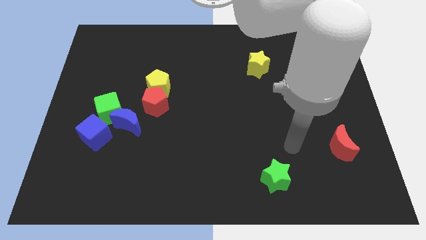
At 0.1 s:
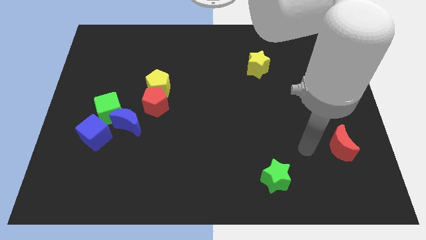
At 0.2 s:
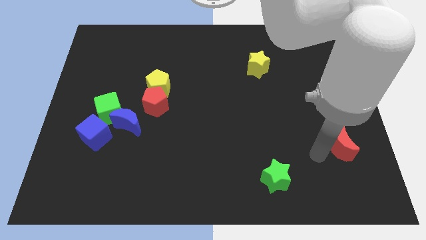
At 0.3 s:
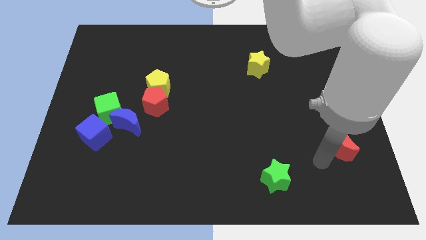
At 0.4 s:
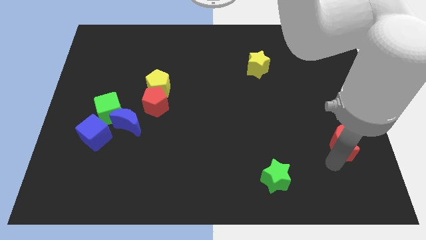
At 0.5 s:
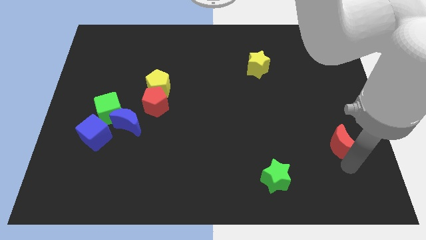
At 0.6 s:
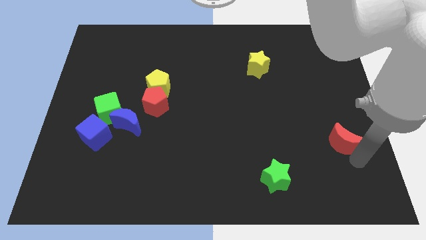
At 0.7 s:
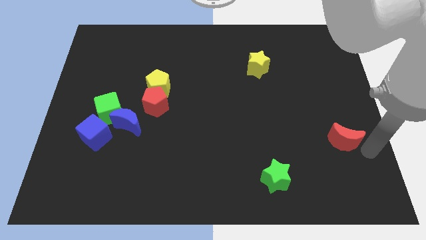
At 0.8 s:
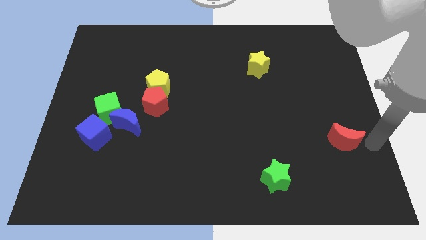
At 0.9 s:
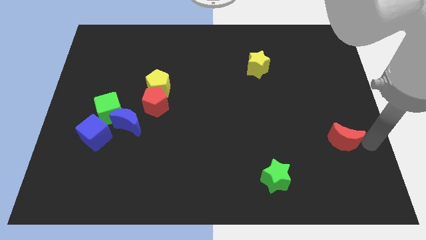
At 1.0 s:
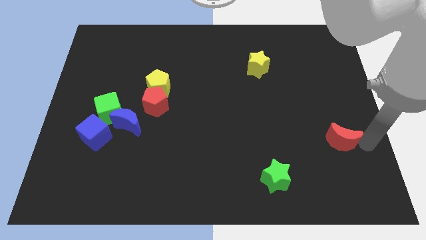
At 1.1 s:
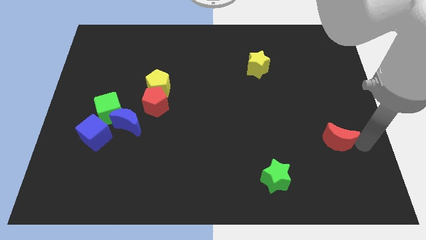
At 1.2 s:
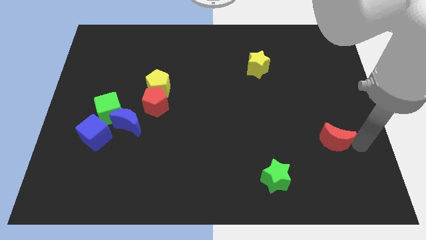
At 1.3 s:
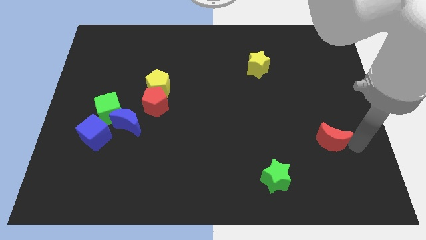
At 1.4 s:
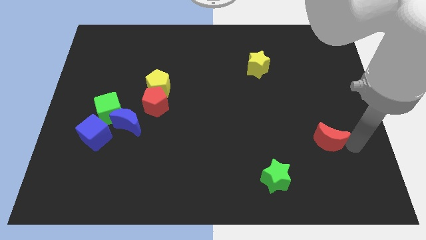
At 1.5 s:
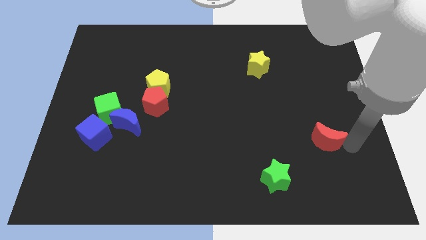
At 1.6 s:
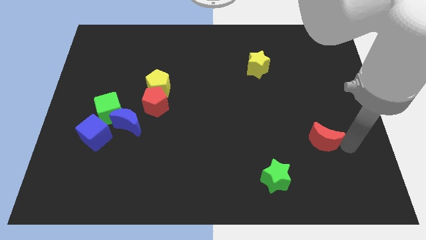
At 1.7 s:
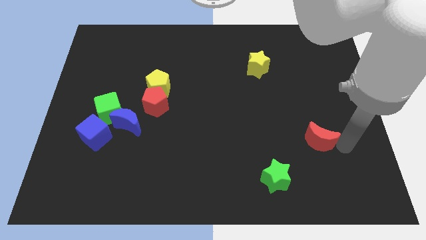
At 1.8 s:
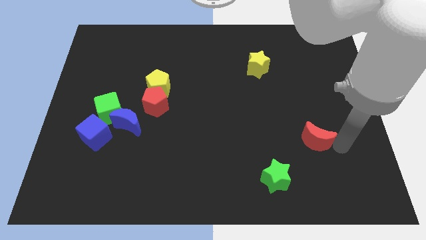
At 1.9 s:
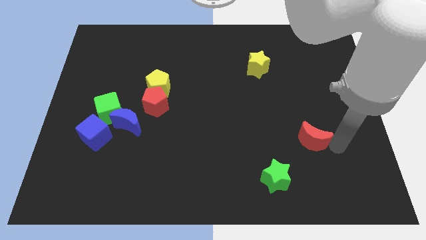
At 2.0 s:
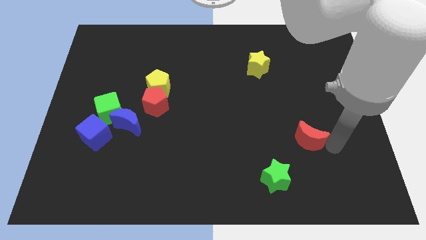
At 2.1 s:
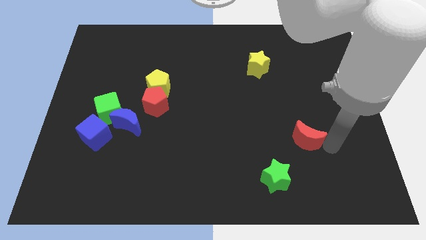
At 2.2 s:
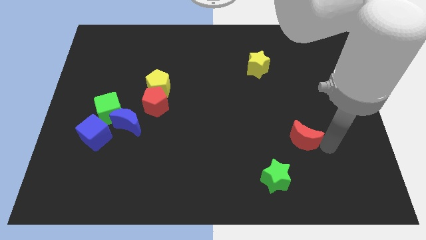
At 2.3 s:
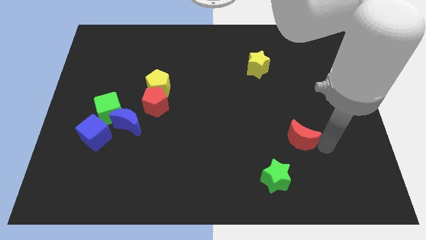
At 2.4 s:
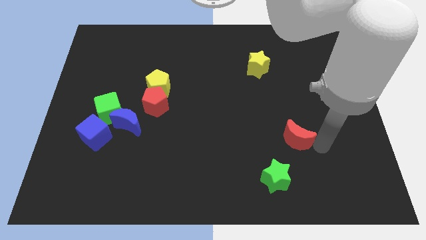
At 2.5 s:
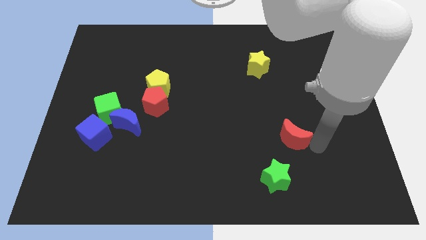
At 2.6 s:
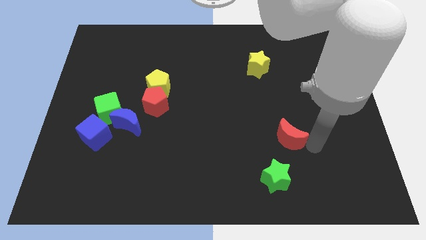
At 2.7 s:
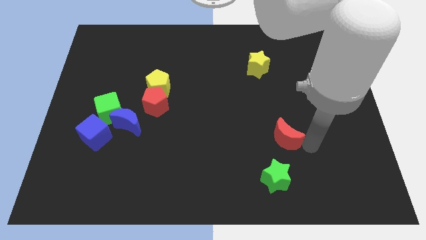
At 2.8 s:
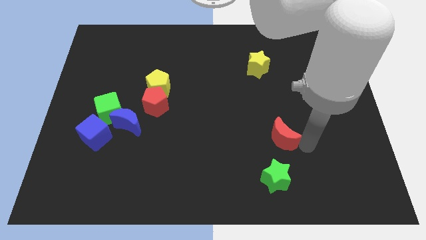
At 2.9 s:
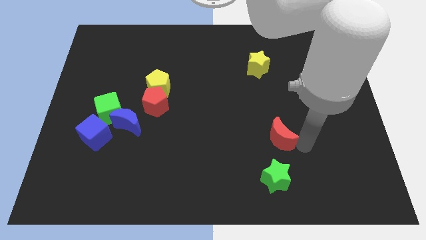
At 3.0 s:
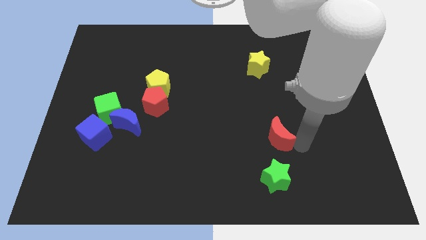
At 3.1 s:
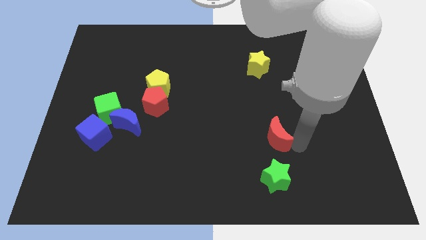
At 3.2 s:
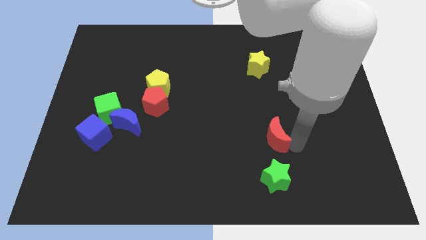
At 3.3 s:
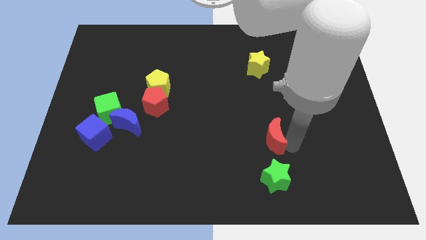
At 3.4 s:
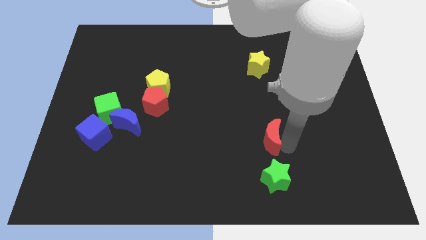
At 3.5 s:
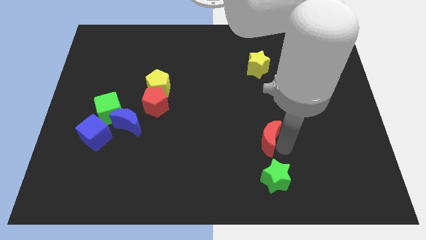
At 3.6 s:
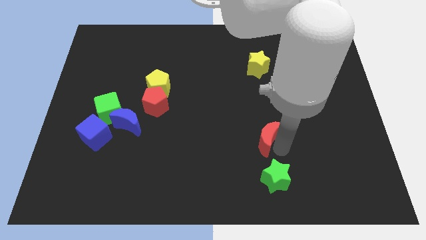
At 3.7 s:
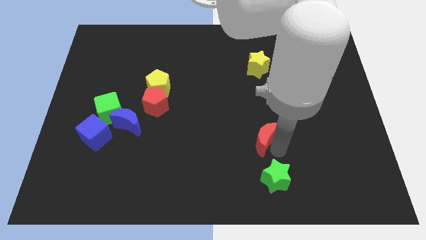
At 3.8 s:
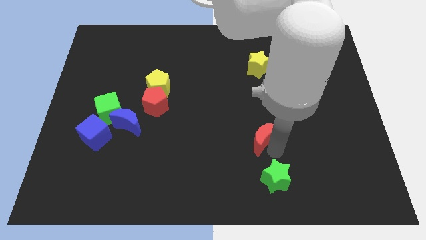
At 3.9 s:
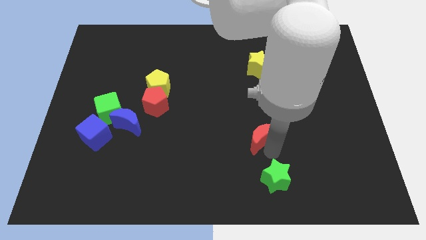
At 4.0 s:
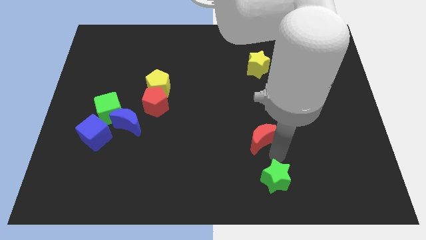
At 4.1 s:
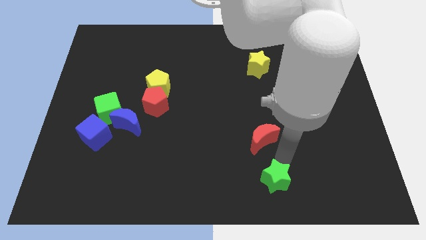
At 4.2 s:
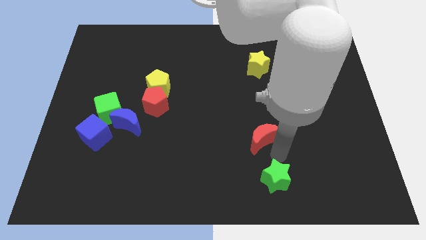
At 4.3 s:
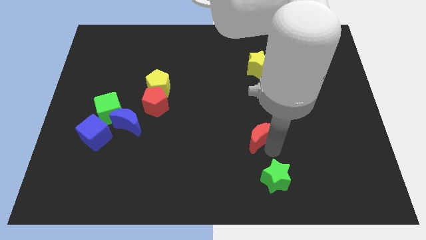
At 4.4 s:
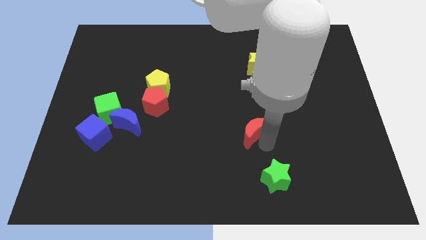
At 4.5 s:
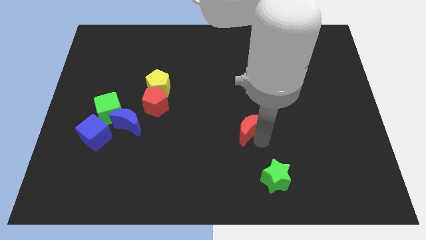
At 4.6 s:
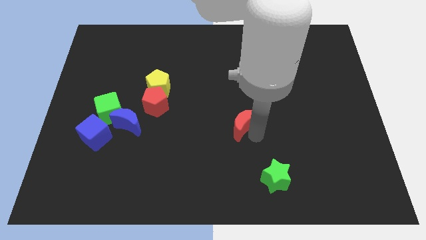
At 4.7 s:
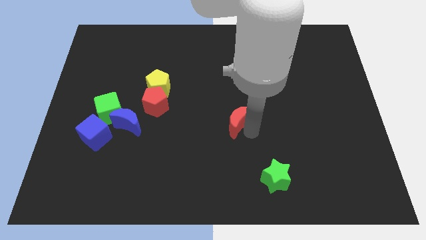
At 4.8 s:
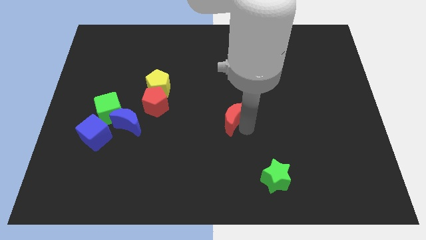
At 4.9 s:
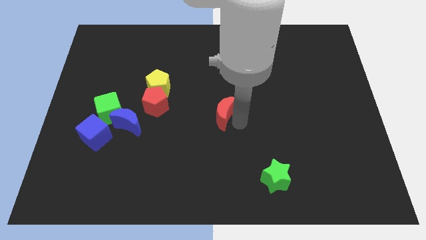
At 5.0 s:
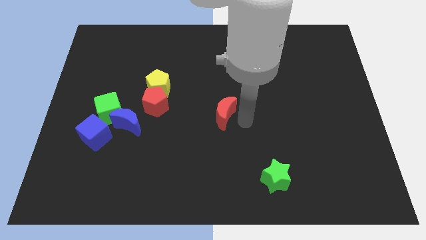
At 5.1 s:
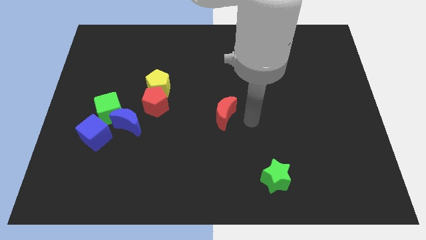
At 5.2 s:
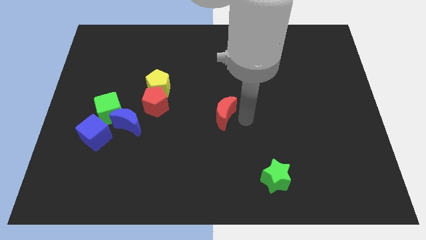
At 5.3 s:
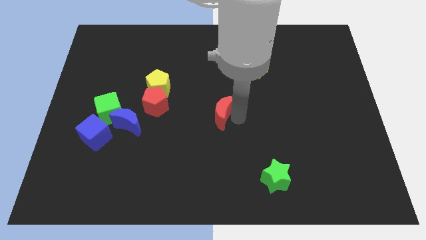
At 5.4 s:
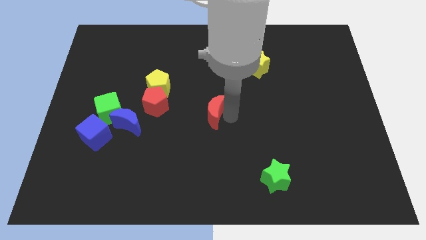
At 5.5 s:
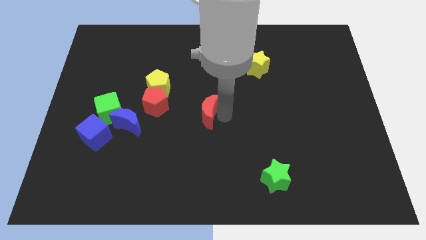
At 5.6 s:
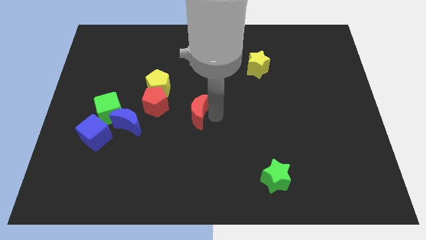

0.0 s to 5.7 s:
move the red moon to the bottom right side of the yellow pentagon

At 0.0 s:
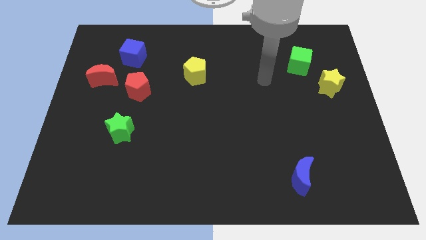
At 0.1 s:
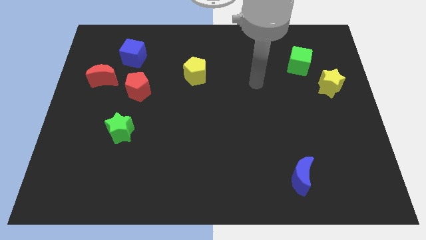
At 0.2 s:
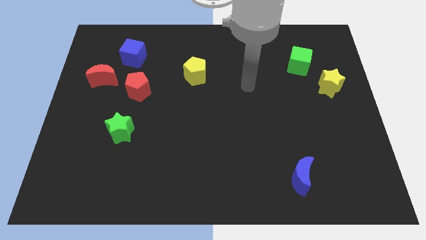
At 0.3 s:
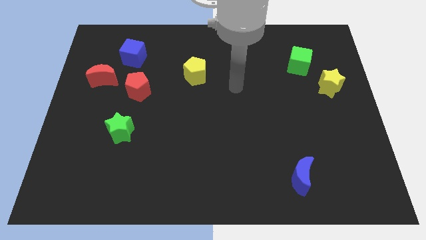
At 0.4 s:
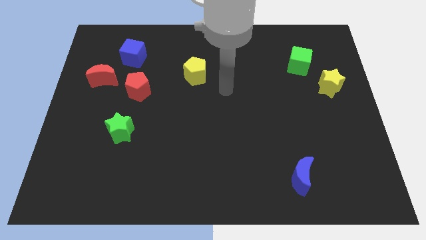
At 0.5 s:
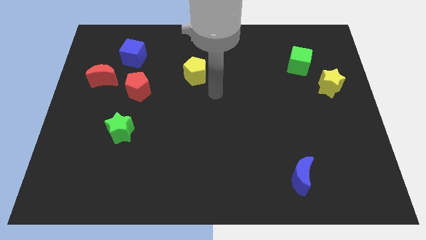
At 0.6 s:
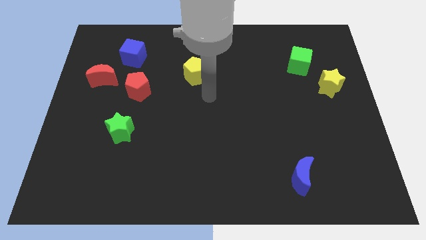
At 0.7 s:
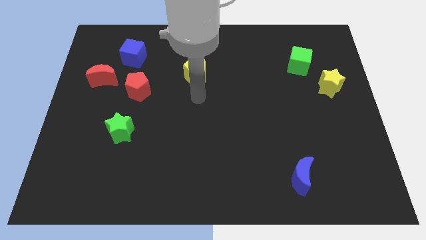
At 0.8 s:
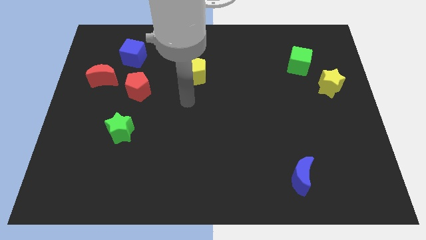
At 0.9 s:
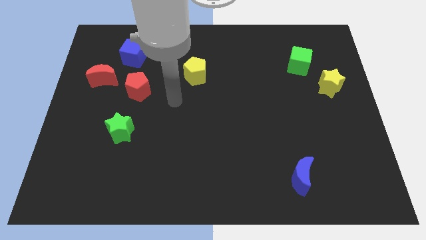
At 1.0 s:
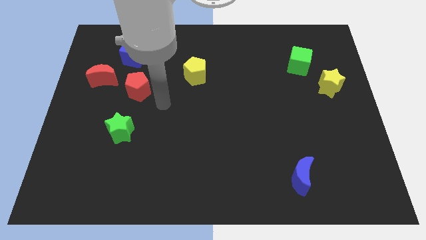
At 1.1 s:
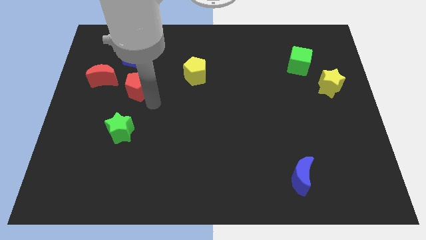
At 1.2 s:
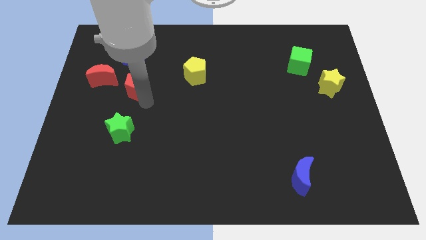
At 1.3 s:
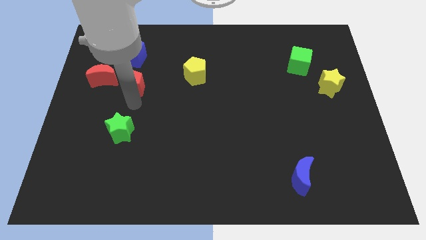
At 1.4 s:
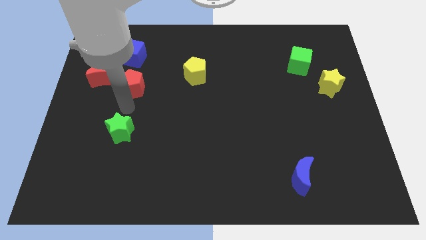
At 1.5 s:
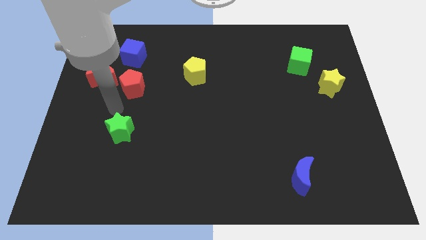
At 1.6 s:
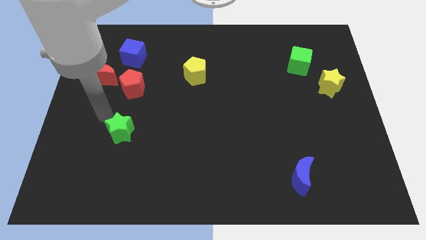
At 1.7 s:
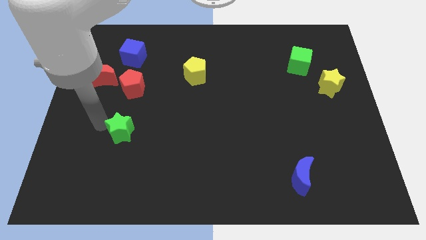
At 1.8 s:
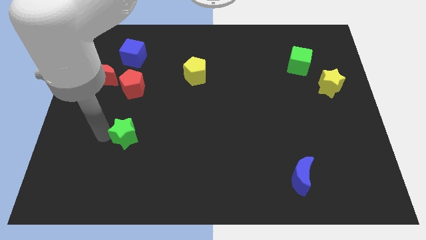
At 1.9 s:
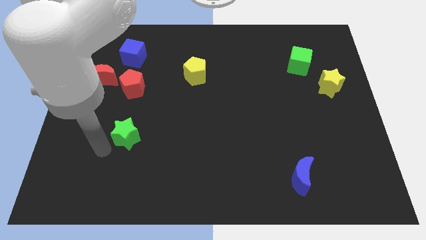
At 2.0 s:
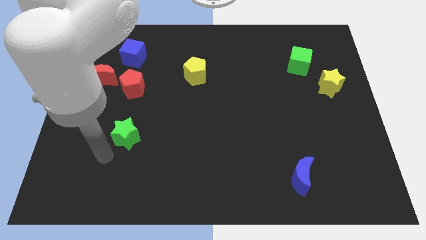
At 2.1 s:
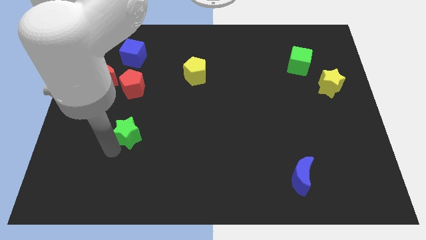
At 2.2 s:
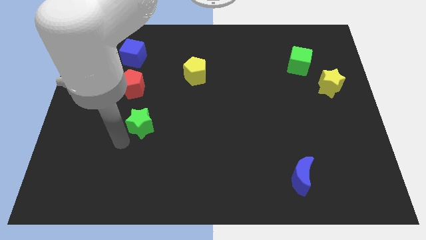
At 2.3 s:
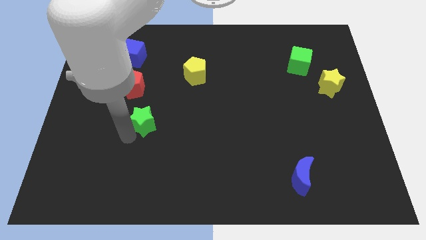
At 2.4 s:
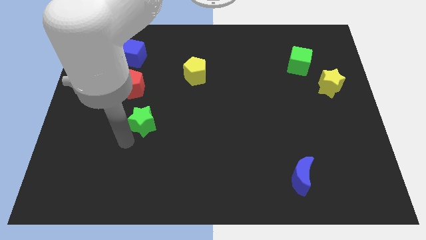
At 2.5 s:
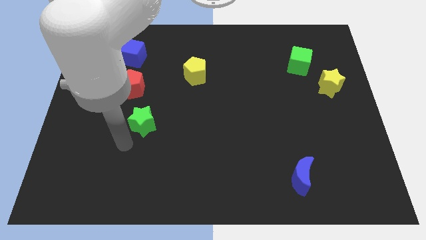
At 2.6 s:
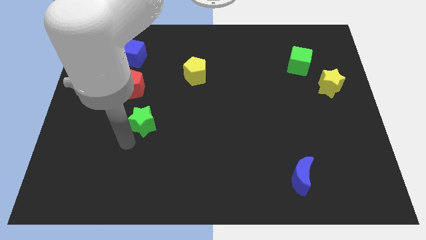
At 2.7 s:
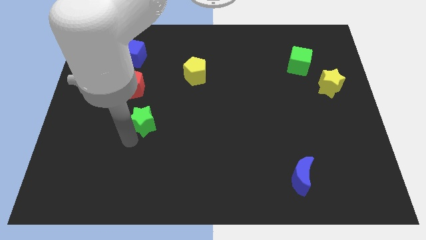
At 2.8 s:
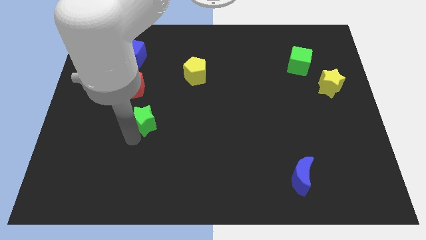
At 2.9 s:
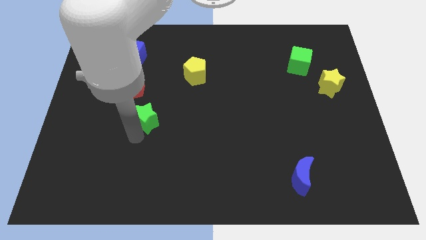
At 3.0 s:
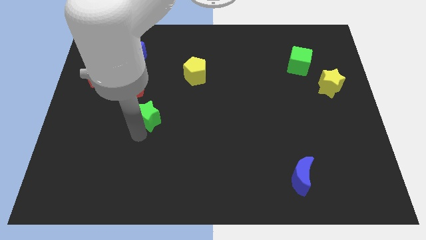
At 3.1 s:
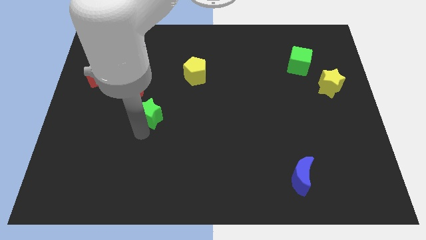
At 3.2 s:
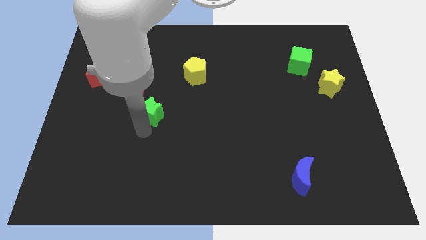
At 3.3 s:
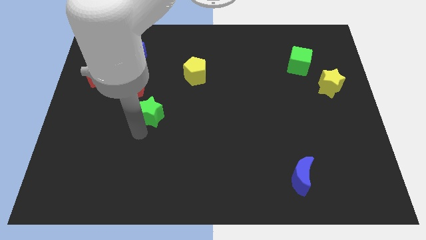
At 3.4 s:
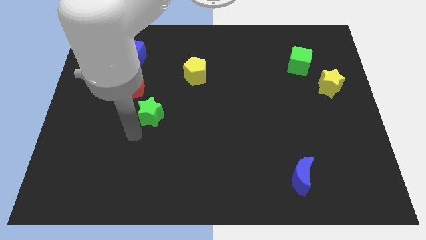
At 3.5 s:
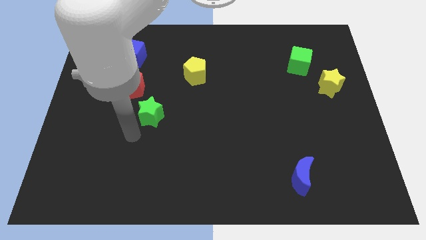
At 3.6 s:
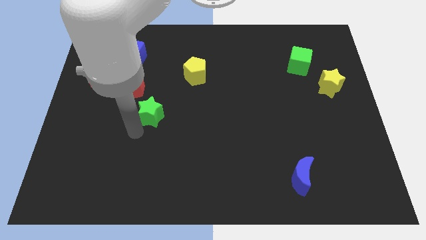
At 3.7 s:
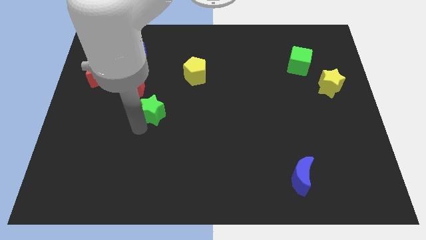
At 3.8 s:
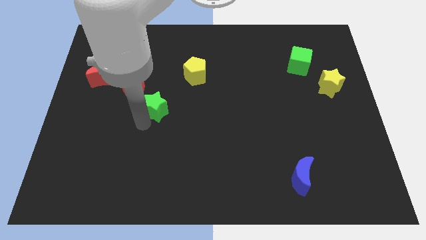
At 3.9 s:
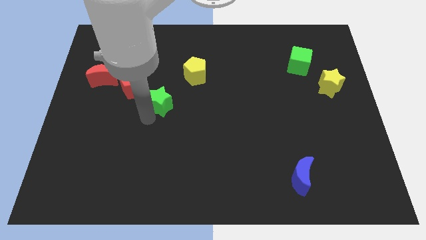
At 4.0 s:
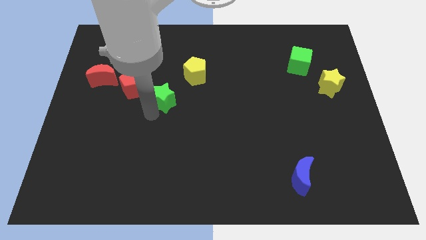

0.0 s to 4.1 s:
push the green star to the right of the red pentagon
